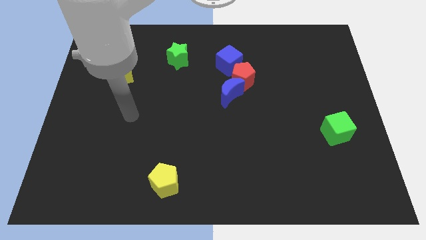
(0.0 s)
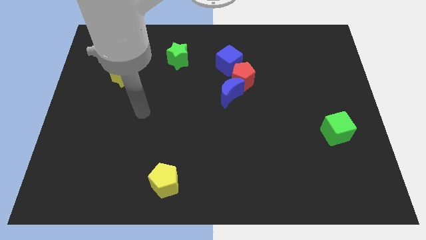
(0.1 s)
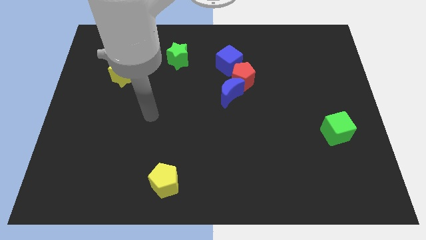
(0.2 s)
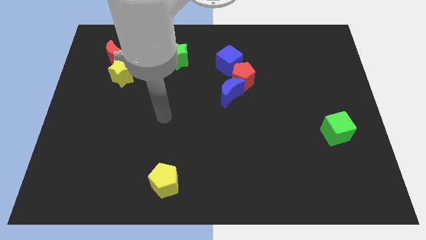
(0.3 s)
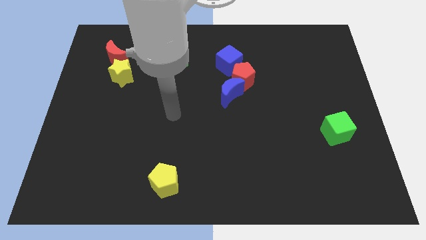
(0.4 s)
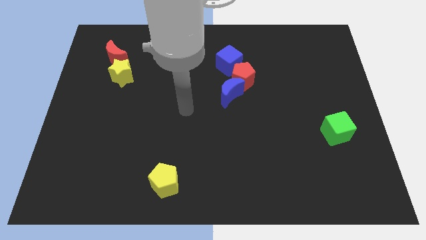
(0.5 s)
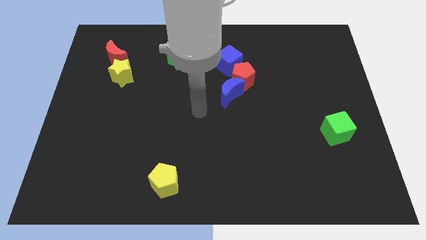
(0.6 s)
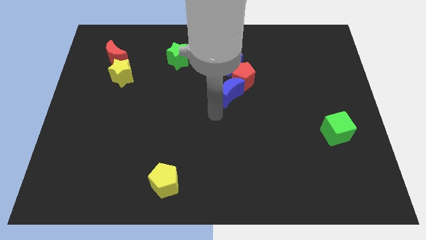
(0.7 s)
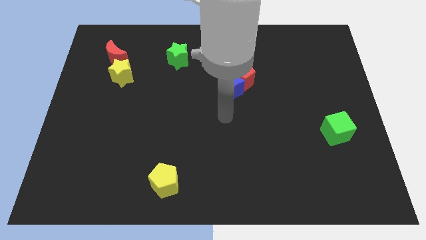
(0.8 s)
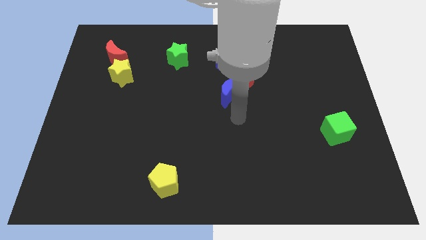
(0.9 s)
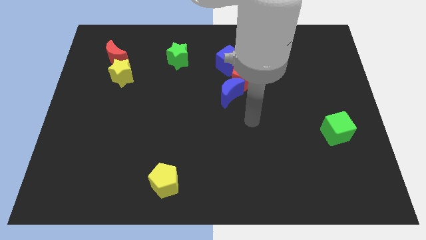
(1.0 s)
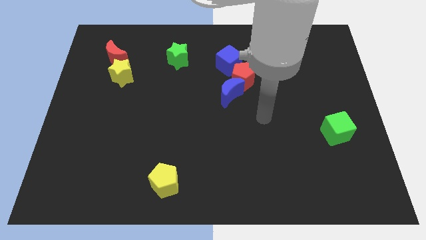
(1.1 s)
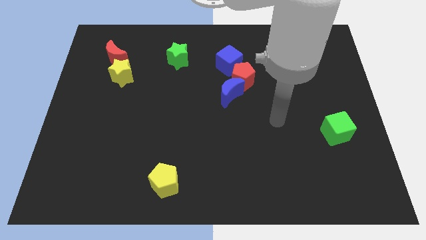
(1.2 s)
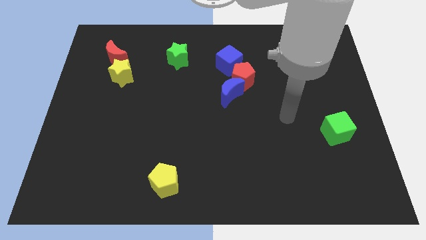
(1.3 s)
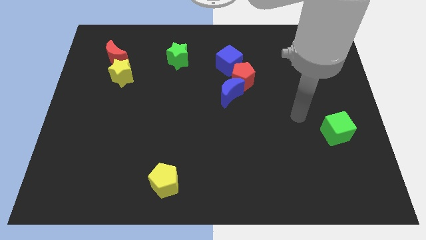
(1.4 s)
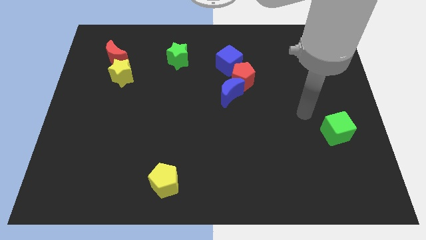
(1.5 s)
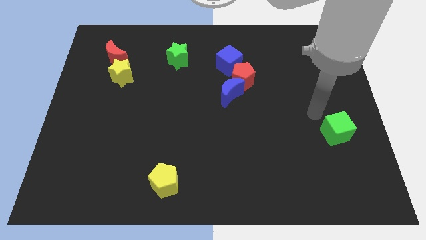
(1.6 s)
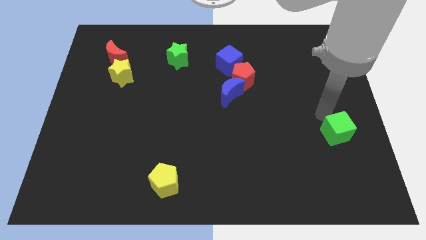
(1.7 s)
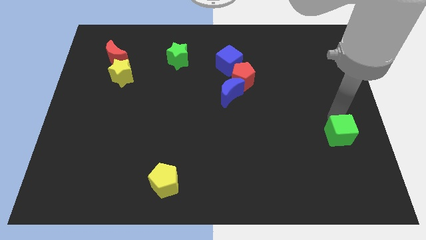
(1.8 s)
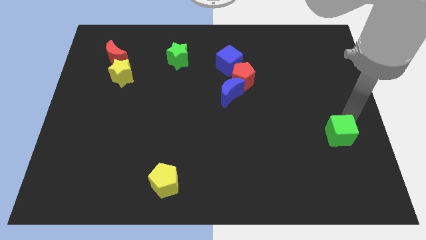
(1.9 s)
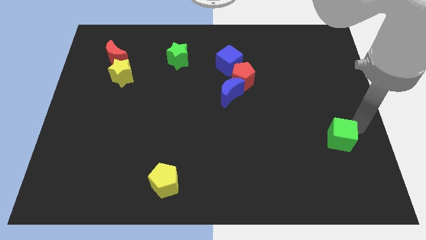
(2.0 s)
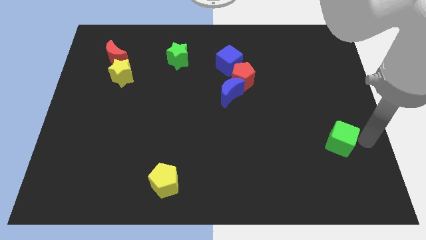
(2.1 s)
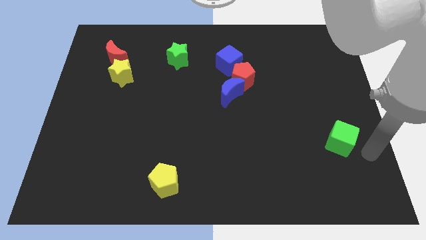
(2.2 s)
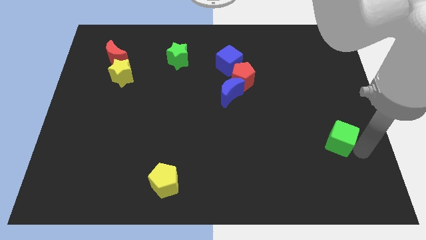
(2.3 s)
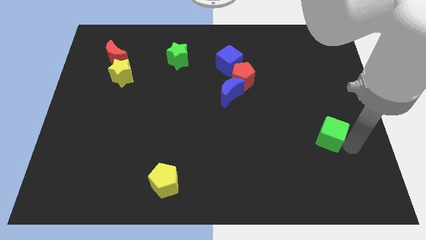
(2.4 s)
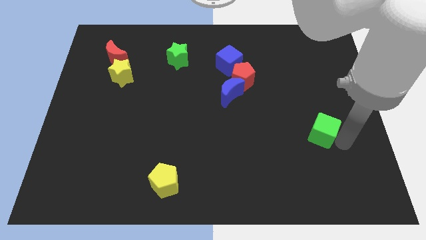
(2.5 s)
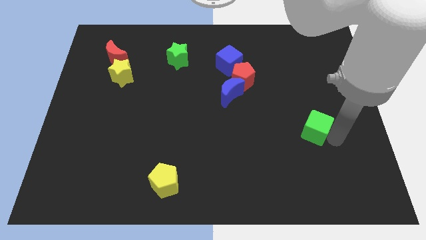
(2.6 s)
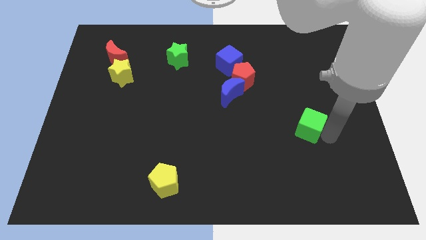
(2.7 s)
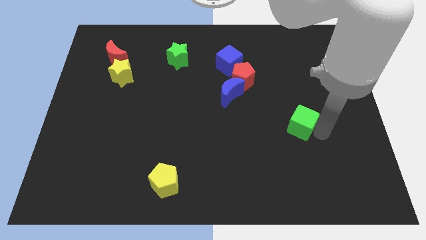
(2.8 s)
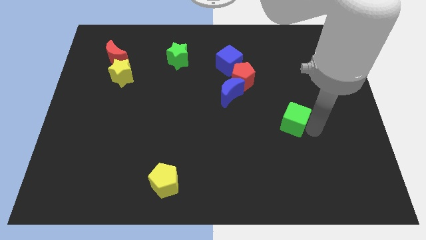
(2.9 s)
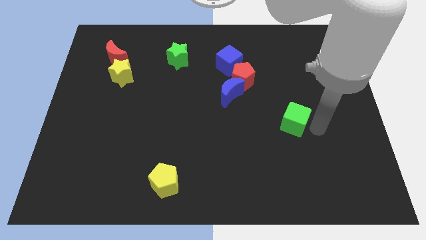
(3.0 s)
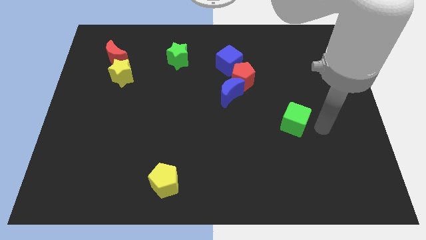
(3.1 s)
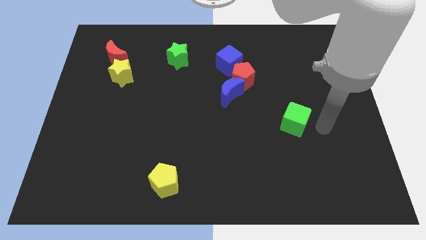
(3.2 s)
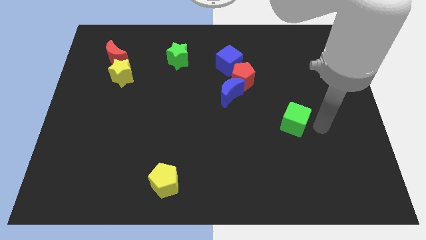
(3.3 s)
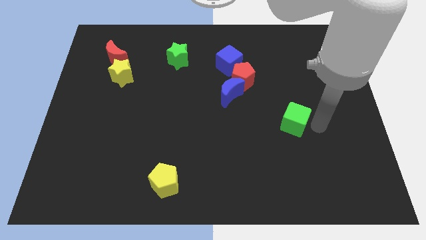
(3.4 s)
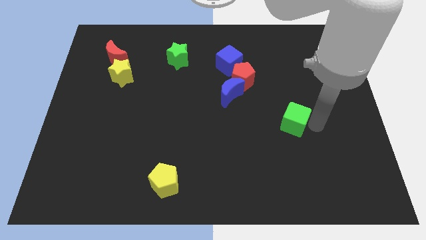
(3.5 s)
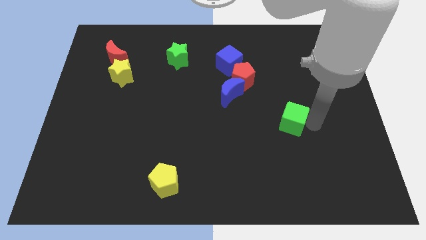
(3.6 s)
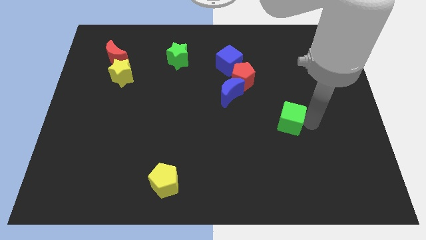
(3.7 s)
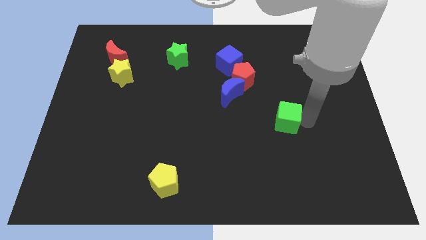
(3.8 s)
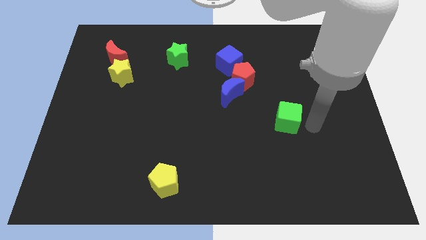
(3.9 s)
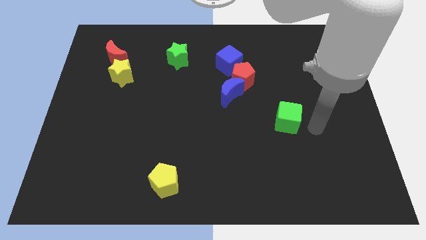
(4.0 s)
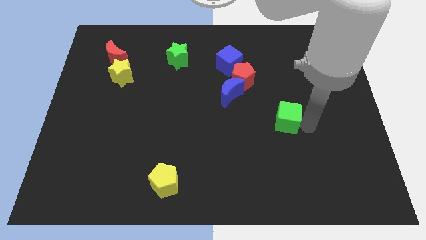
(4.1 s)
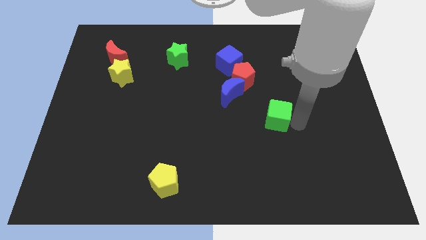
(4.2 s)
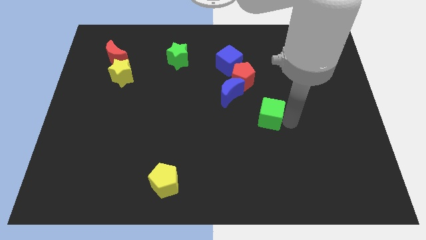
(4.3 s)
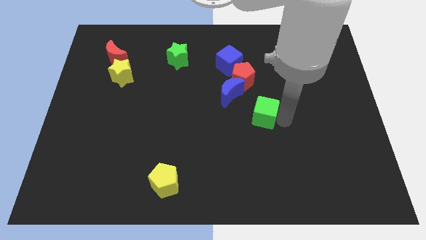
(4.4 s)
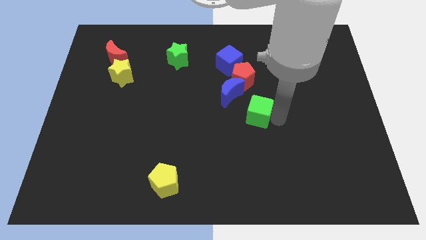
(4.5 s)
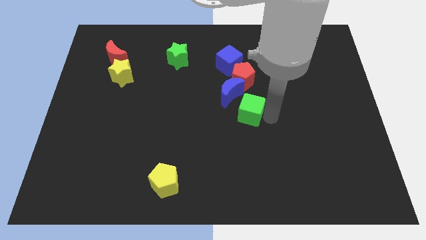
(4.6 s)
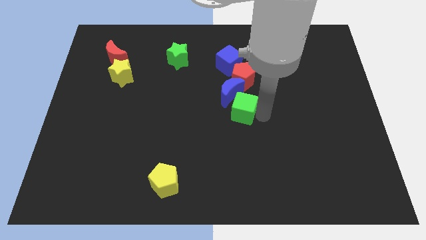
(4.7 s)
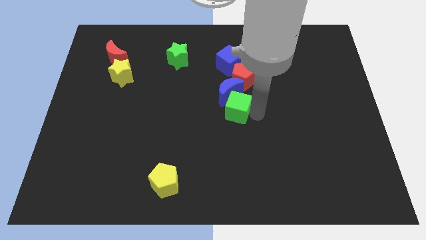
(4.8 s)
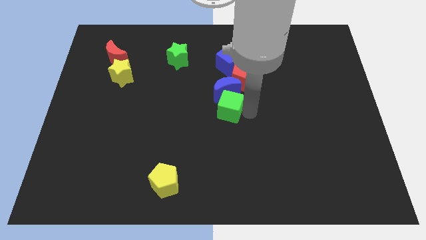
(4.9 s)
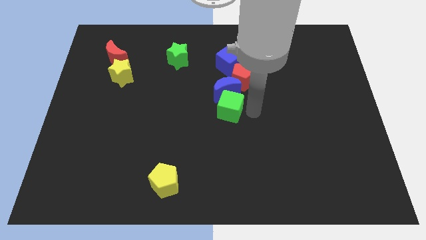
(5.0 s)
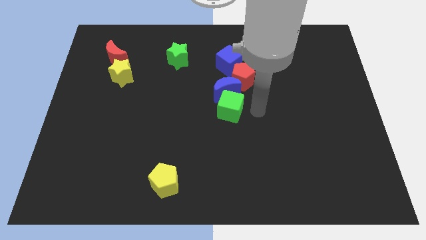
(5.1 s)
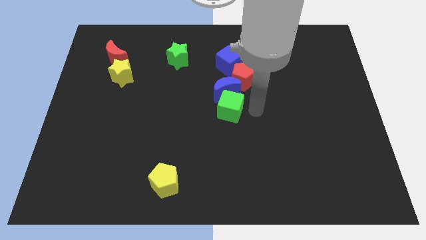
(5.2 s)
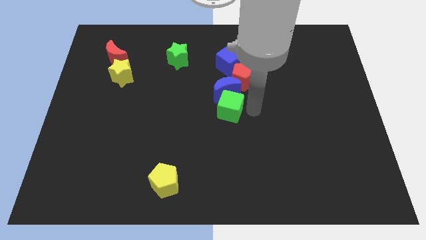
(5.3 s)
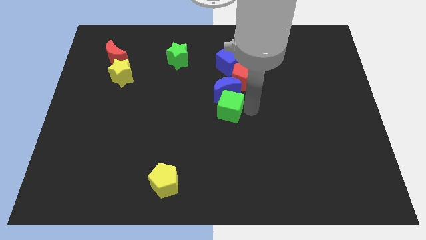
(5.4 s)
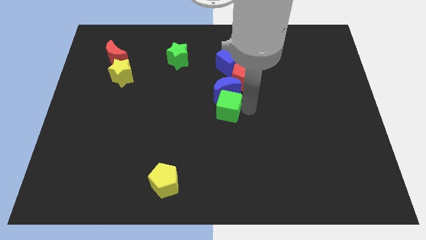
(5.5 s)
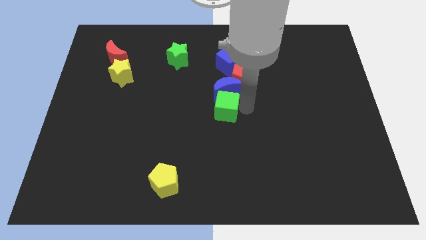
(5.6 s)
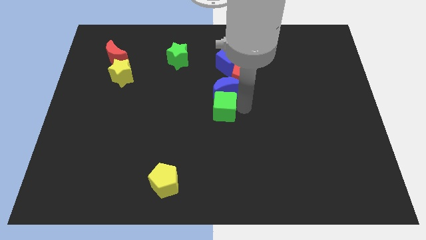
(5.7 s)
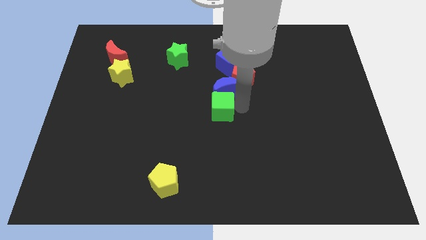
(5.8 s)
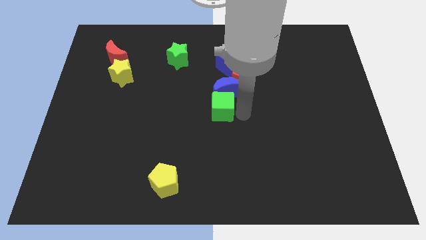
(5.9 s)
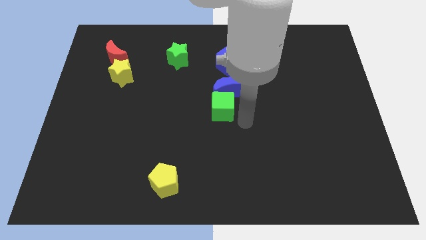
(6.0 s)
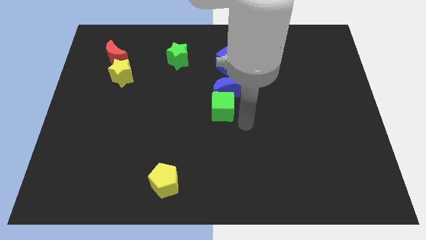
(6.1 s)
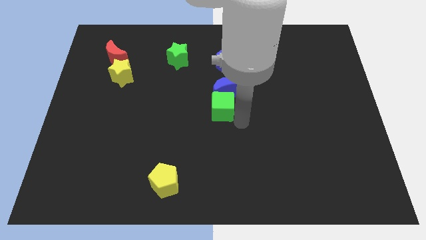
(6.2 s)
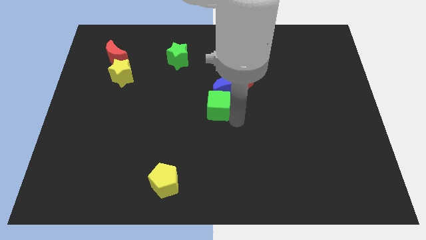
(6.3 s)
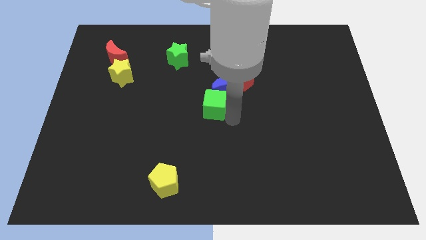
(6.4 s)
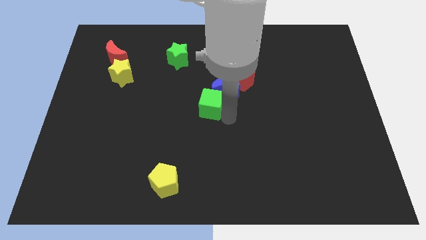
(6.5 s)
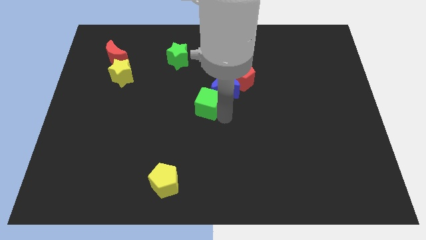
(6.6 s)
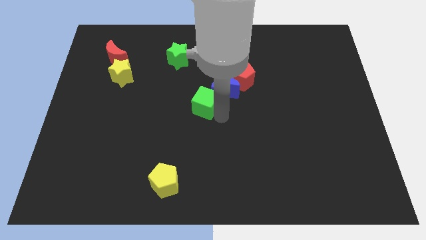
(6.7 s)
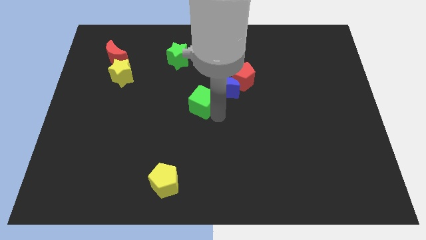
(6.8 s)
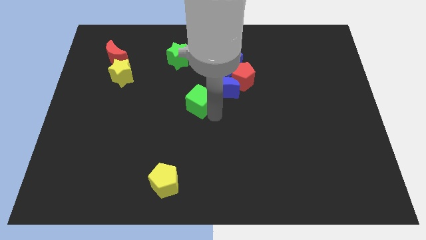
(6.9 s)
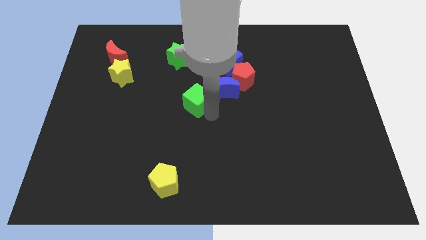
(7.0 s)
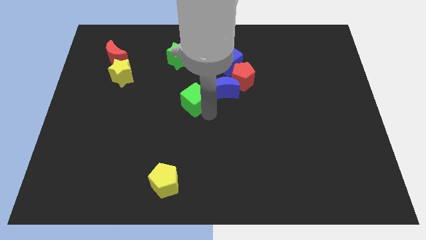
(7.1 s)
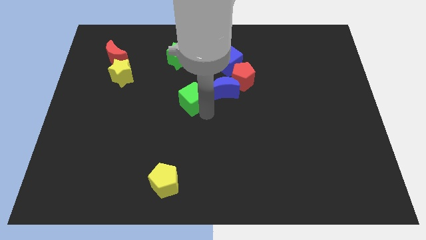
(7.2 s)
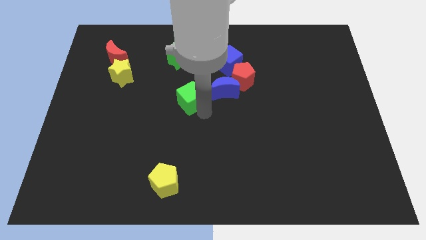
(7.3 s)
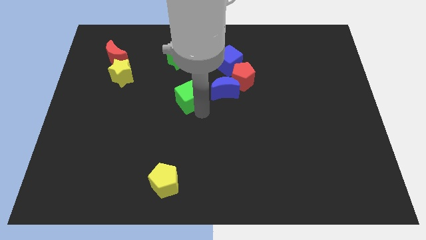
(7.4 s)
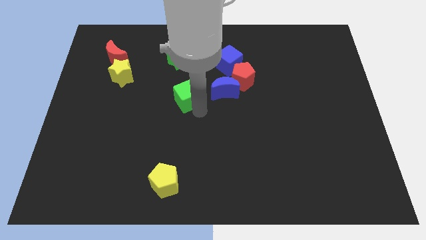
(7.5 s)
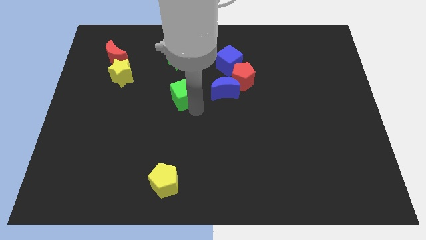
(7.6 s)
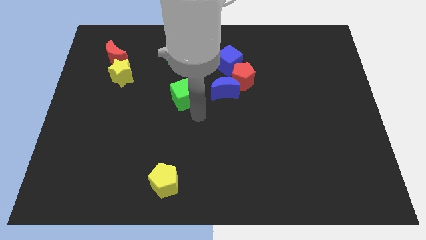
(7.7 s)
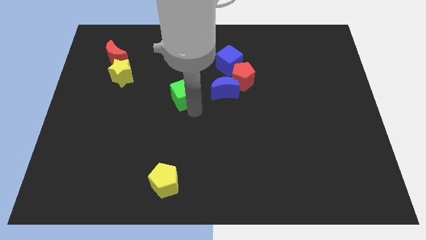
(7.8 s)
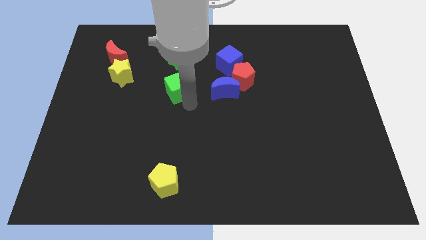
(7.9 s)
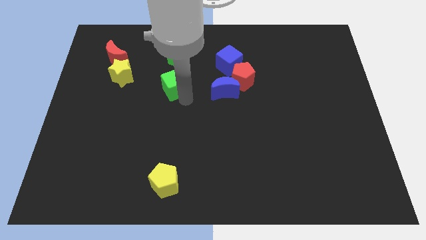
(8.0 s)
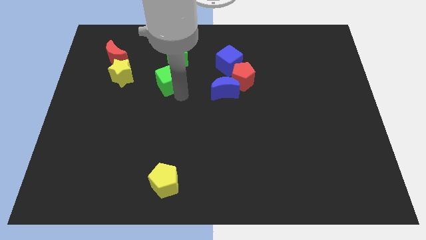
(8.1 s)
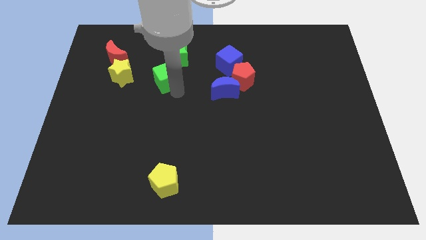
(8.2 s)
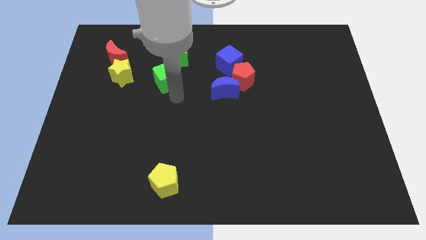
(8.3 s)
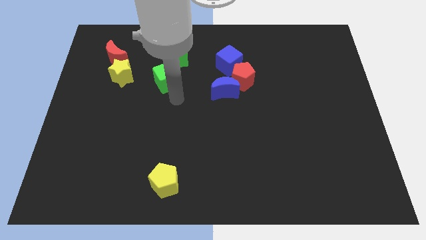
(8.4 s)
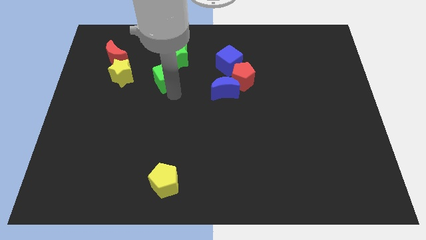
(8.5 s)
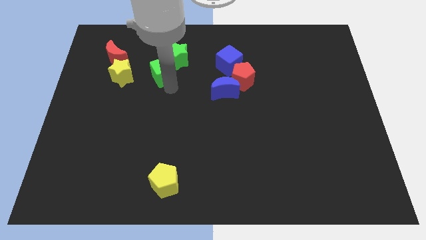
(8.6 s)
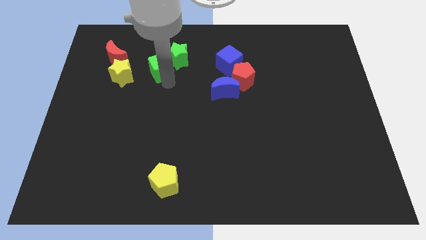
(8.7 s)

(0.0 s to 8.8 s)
put the green cube to the right of the red moon
